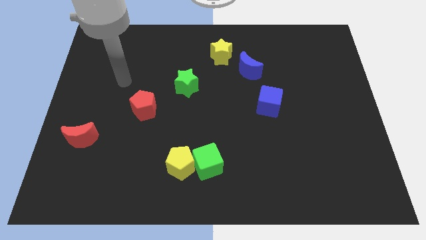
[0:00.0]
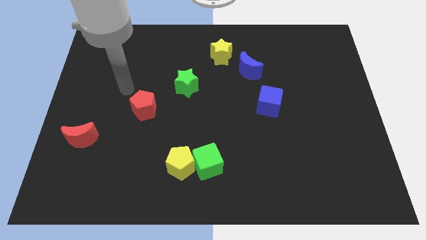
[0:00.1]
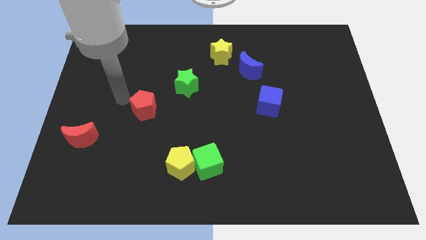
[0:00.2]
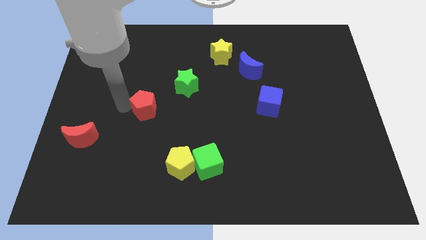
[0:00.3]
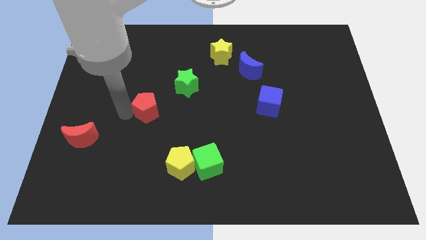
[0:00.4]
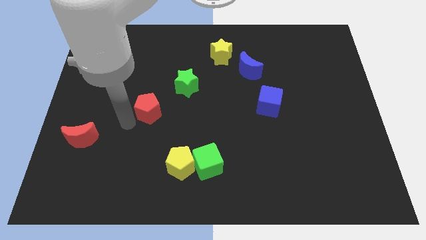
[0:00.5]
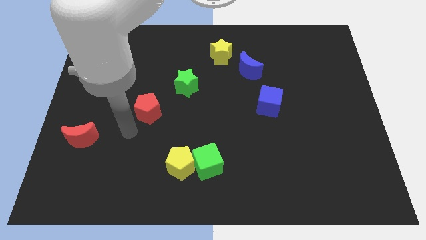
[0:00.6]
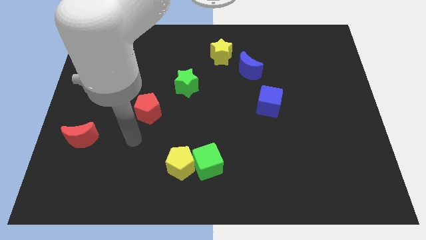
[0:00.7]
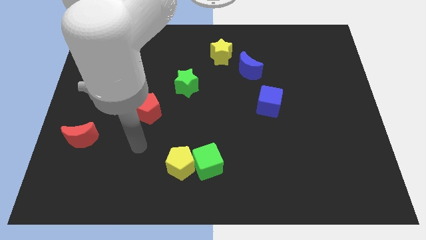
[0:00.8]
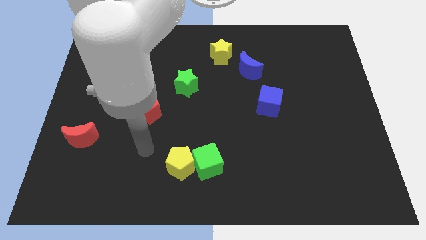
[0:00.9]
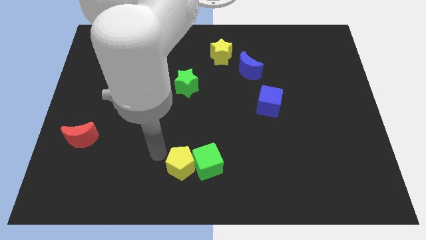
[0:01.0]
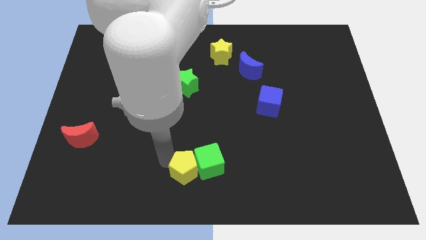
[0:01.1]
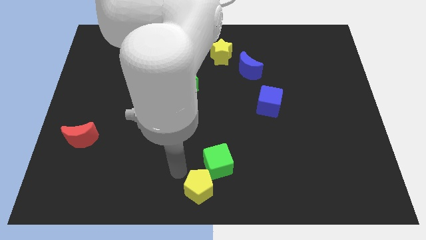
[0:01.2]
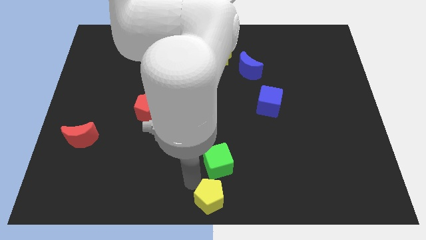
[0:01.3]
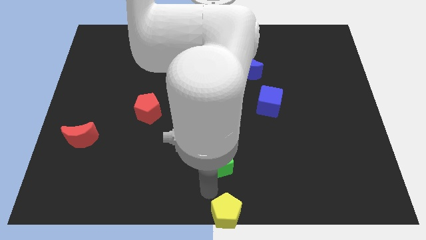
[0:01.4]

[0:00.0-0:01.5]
move the green cube away from the yellow pentagon

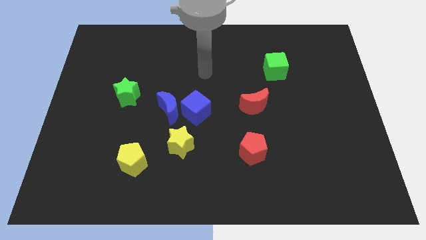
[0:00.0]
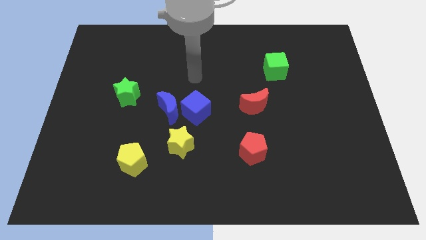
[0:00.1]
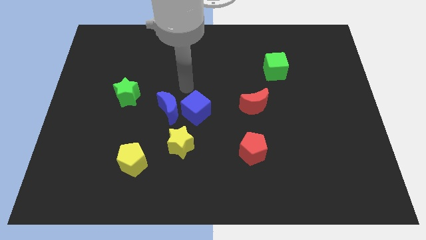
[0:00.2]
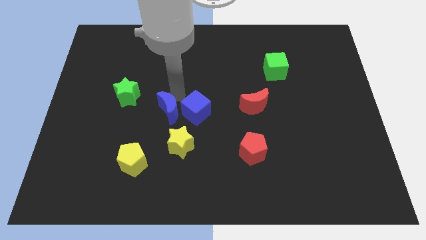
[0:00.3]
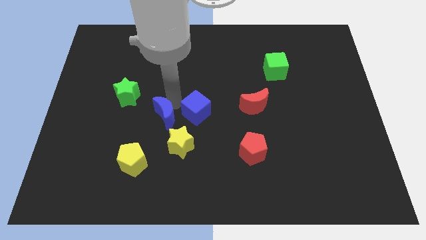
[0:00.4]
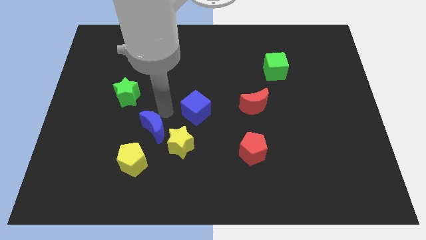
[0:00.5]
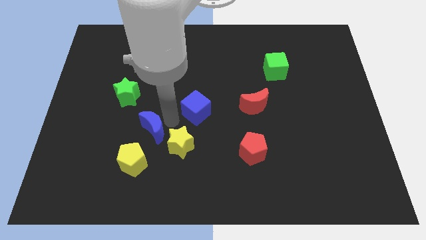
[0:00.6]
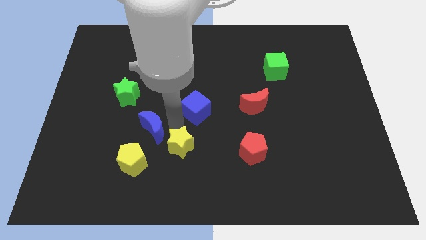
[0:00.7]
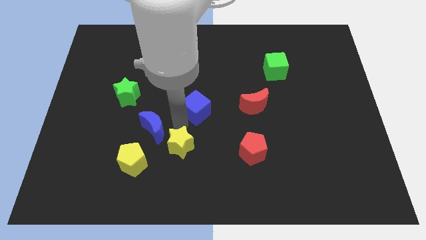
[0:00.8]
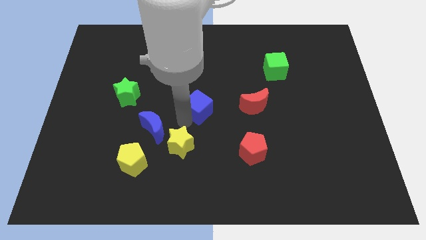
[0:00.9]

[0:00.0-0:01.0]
move the blue cube away from the blue moon and yellow star

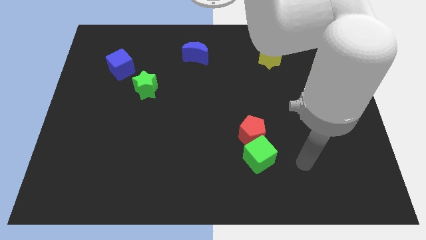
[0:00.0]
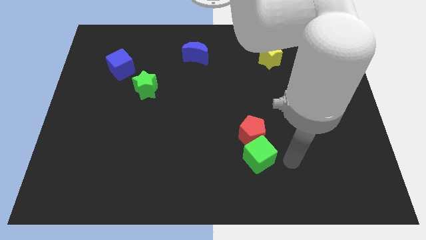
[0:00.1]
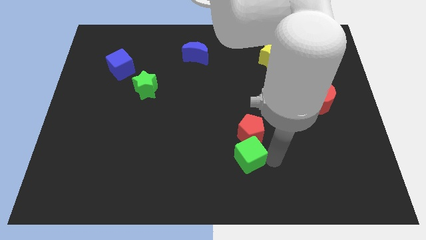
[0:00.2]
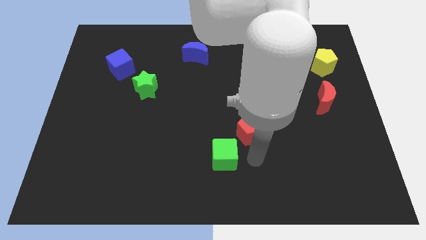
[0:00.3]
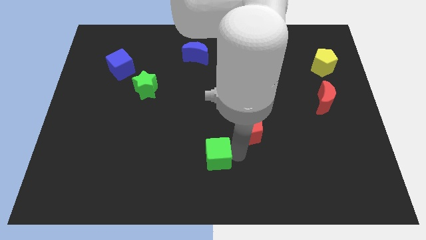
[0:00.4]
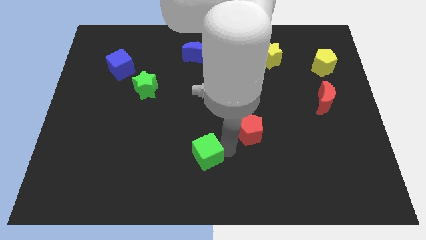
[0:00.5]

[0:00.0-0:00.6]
separate the red pentagon from the green cube

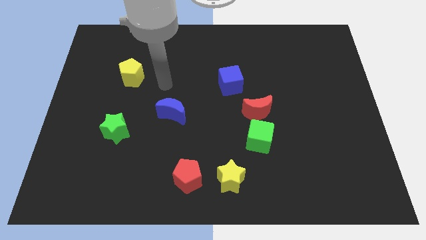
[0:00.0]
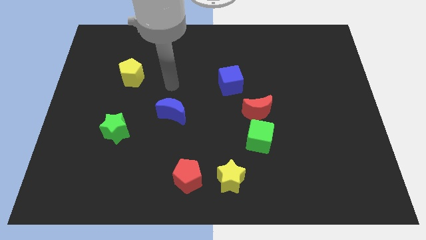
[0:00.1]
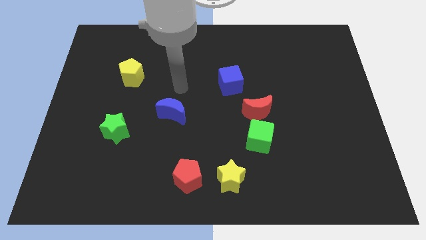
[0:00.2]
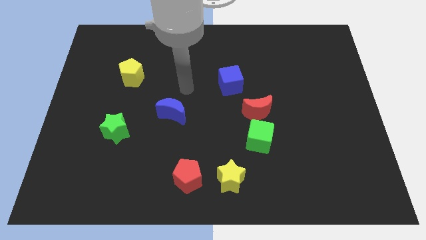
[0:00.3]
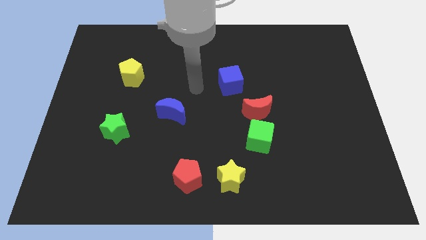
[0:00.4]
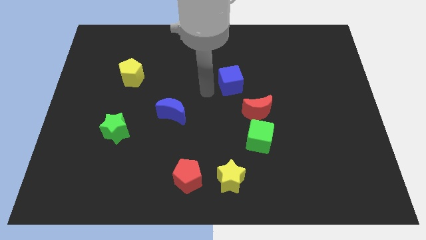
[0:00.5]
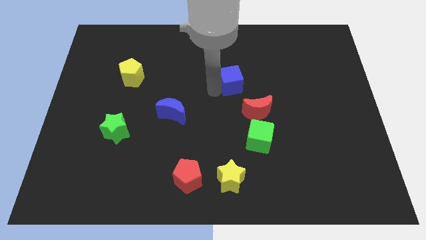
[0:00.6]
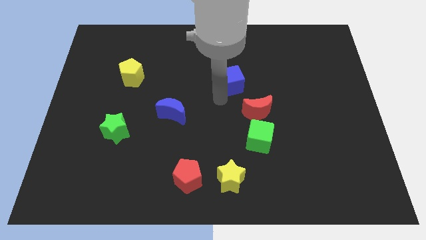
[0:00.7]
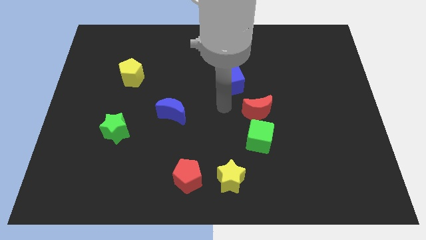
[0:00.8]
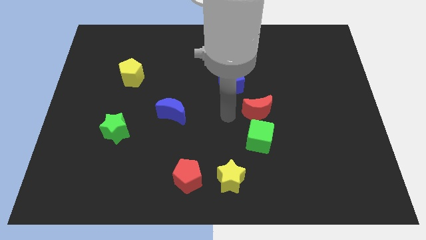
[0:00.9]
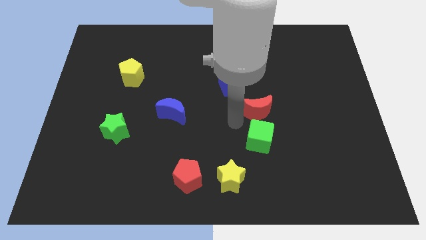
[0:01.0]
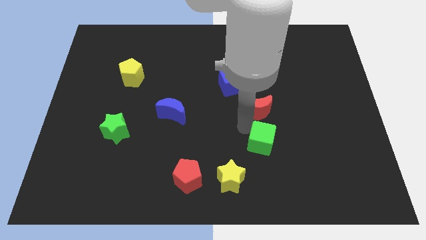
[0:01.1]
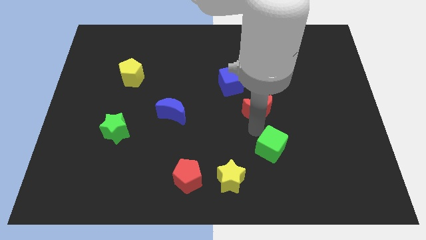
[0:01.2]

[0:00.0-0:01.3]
separate the red moon from the green cube

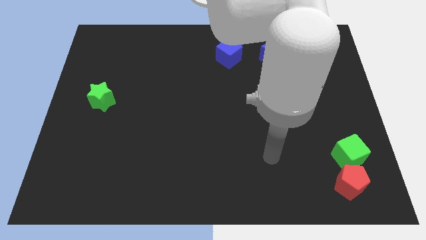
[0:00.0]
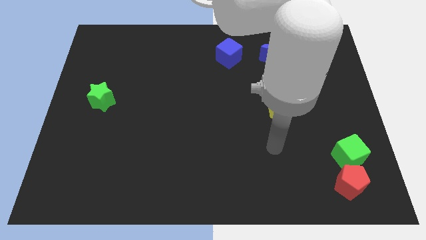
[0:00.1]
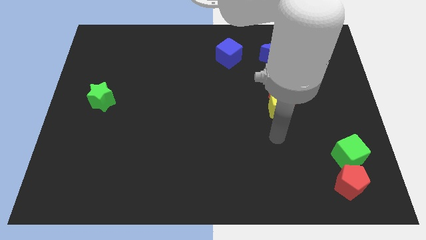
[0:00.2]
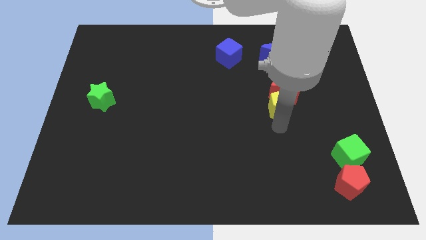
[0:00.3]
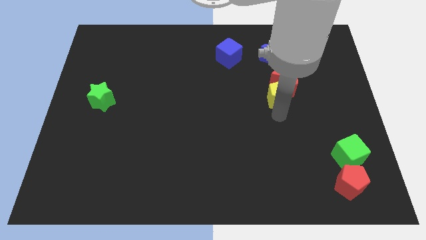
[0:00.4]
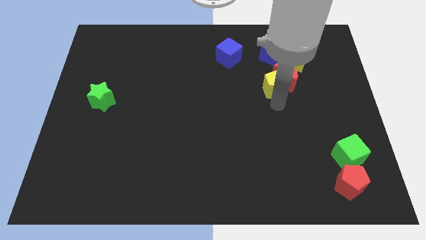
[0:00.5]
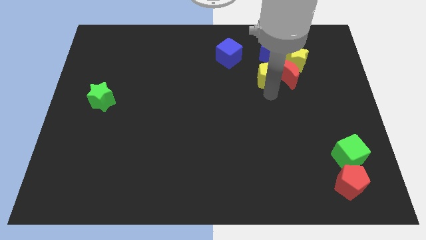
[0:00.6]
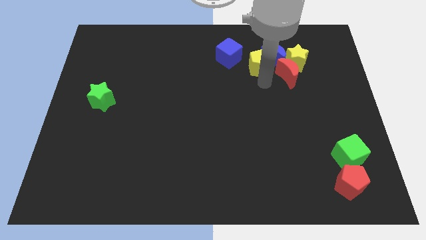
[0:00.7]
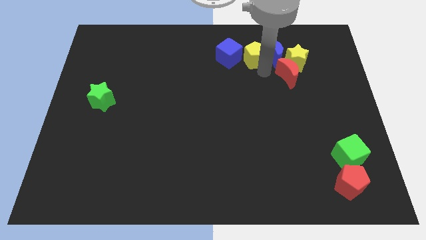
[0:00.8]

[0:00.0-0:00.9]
pull the red moon apart from the yellow pentagon

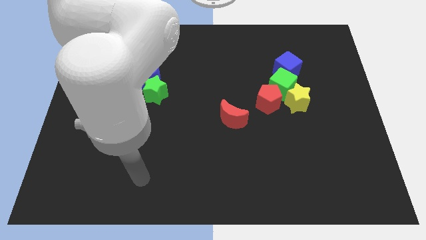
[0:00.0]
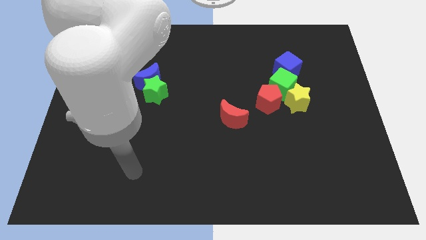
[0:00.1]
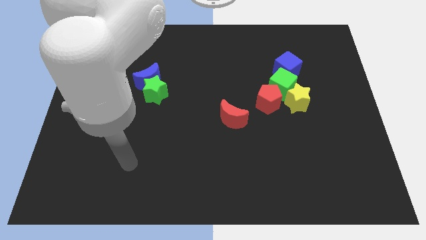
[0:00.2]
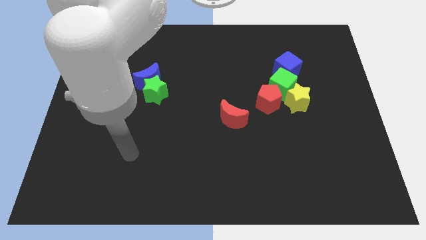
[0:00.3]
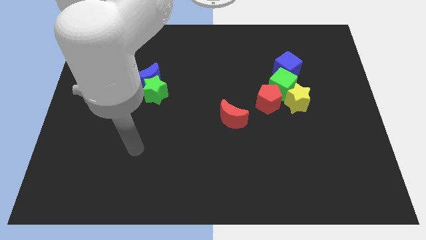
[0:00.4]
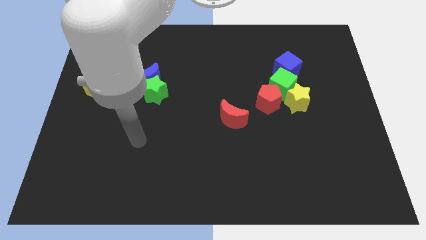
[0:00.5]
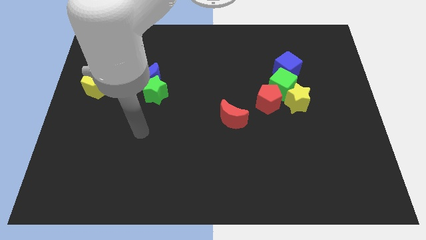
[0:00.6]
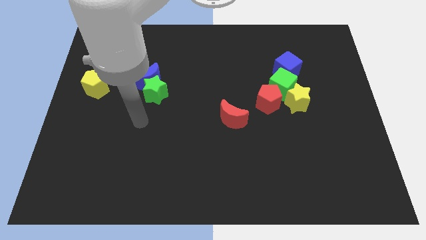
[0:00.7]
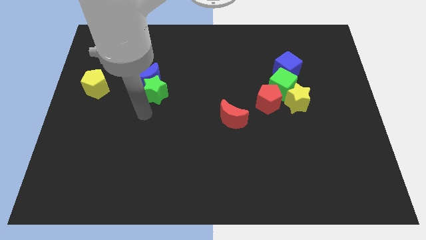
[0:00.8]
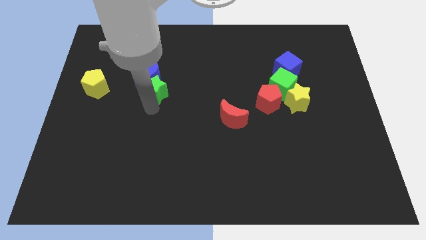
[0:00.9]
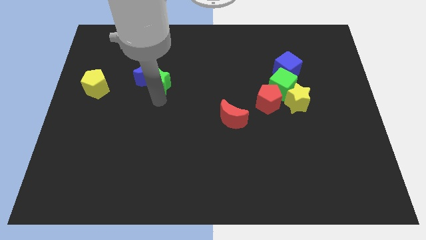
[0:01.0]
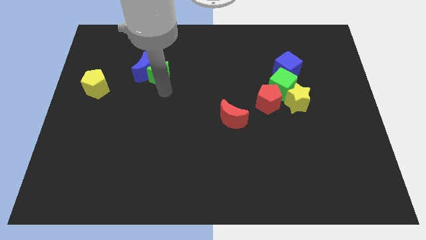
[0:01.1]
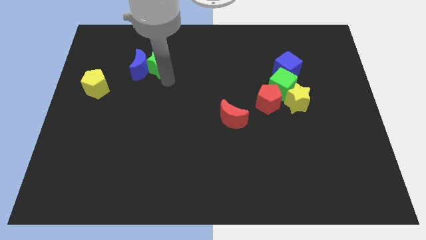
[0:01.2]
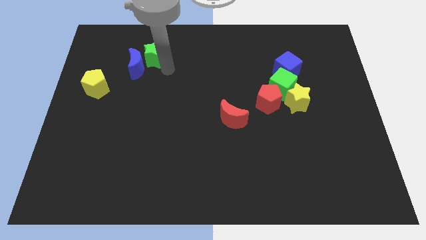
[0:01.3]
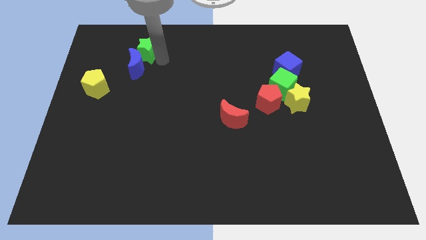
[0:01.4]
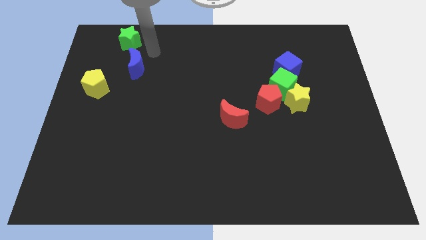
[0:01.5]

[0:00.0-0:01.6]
move the blue moon away from the green star

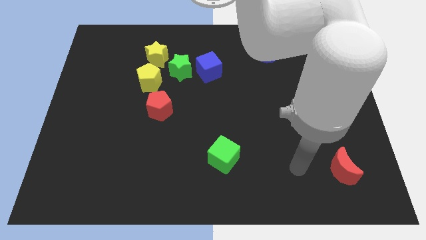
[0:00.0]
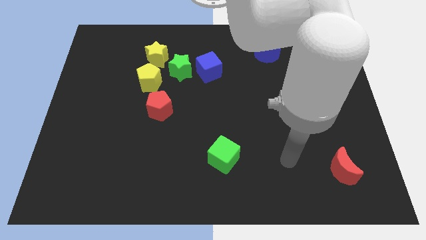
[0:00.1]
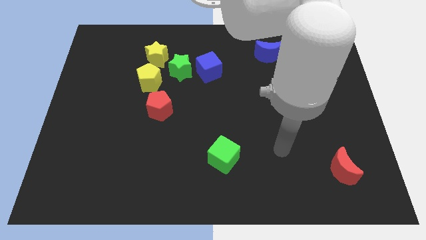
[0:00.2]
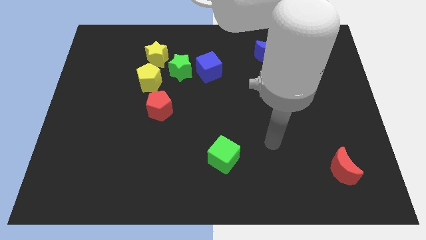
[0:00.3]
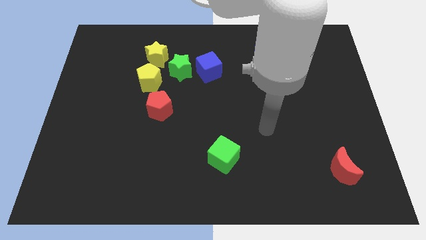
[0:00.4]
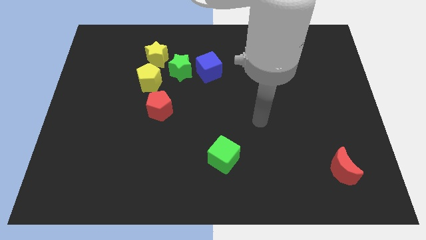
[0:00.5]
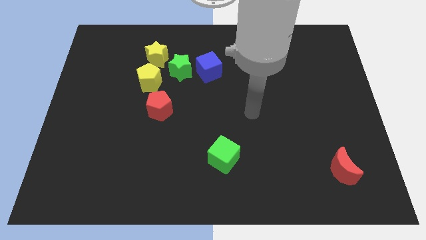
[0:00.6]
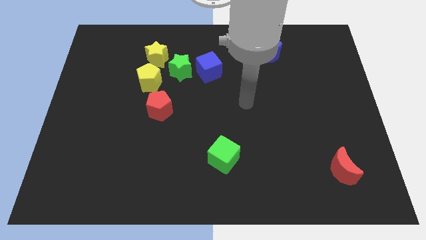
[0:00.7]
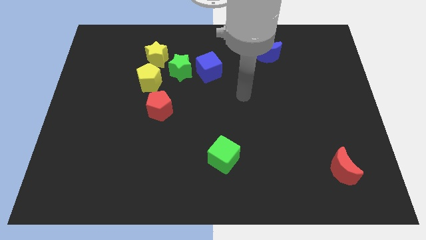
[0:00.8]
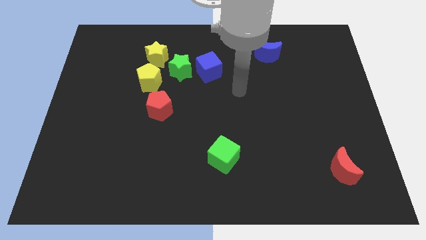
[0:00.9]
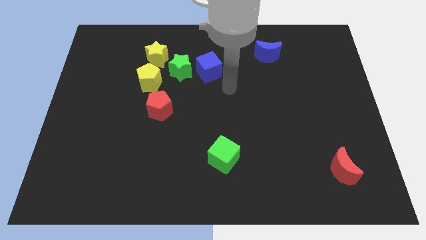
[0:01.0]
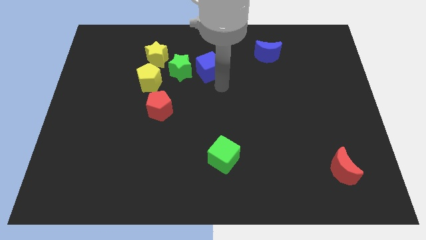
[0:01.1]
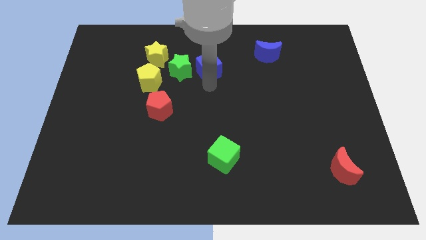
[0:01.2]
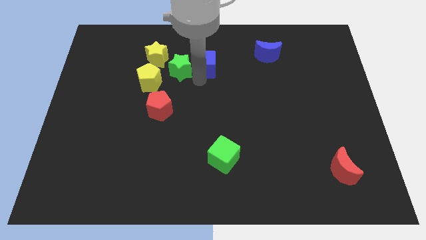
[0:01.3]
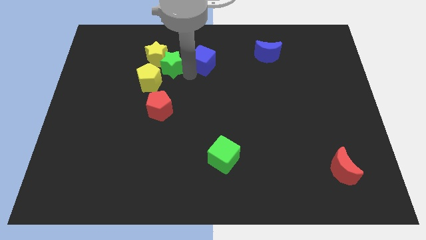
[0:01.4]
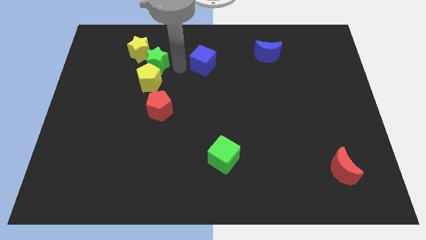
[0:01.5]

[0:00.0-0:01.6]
separate the blue cube from the green star

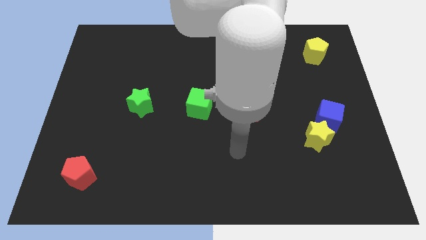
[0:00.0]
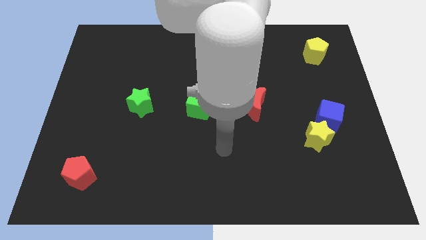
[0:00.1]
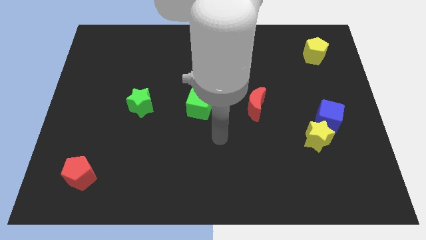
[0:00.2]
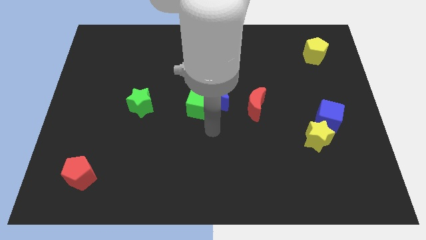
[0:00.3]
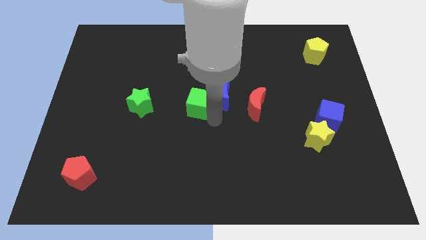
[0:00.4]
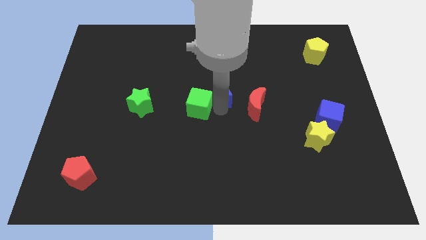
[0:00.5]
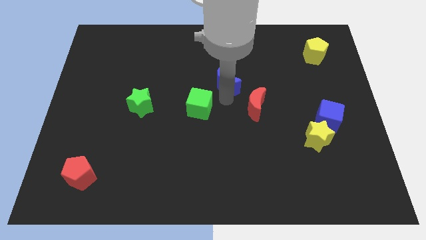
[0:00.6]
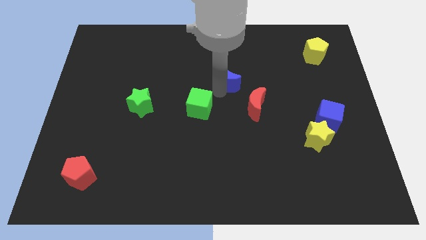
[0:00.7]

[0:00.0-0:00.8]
separate the green cube from the blue moon
